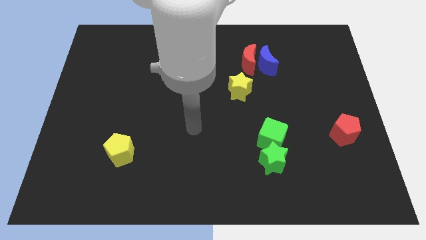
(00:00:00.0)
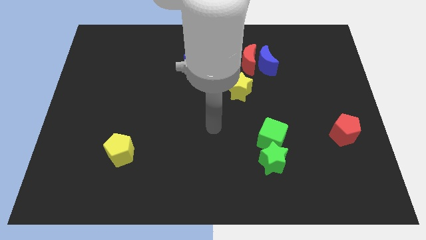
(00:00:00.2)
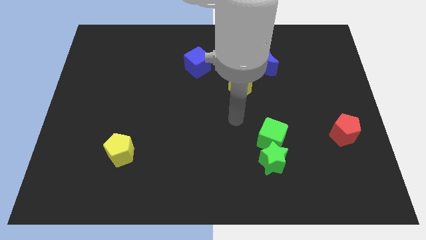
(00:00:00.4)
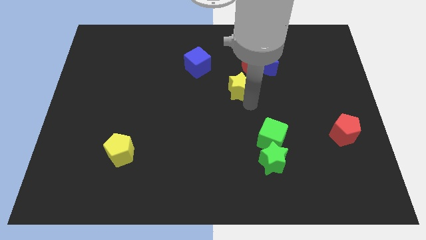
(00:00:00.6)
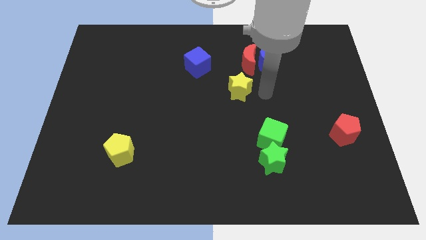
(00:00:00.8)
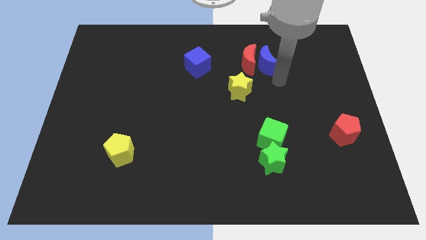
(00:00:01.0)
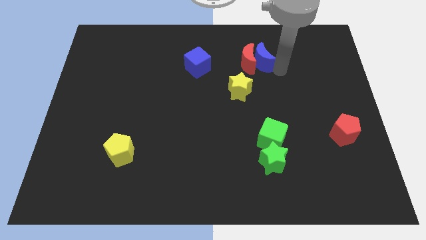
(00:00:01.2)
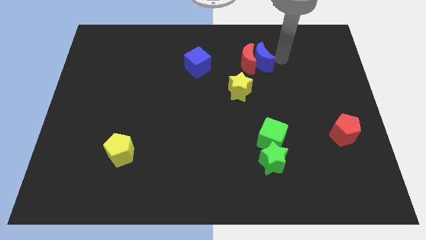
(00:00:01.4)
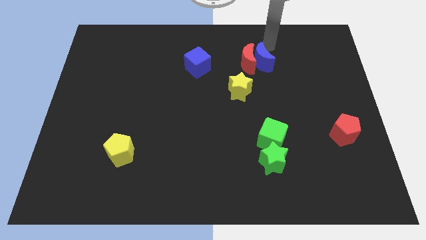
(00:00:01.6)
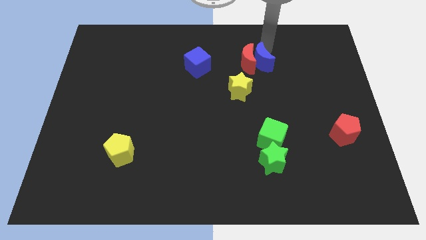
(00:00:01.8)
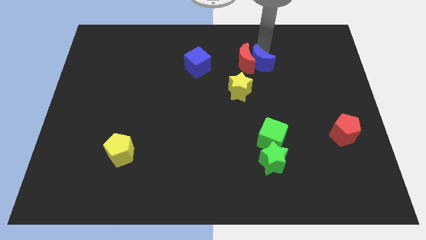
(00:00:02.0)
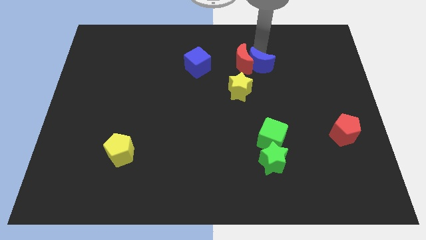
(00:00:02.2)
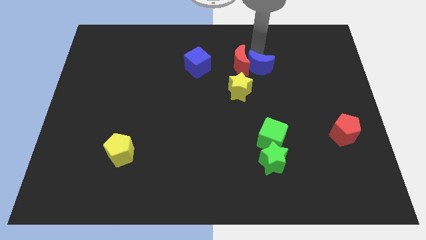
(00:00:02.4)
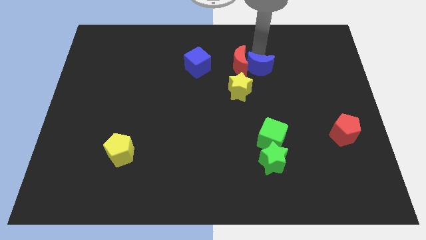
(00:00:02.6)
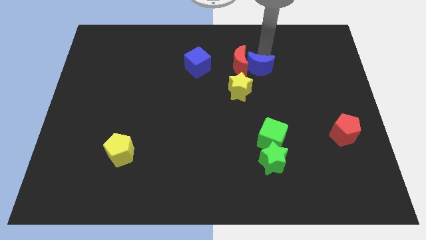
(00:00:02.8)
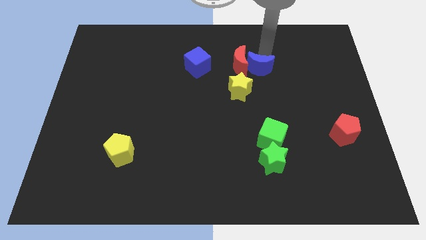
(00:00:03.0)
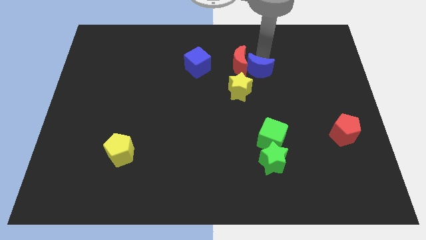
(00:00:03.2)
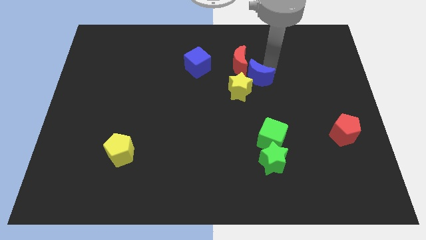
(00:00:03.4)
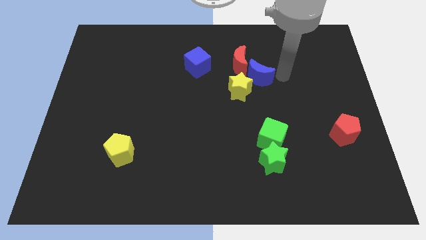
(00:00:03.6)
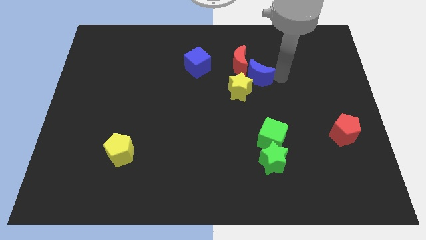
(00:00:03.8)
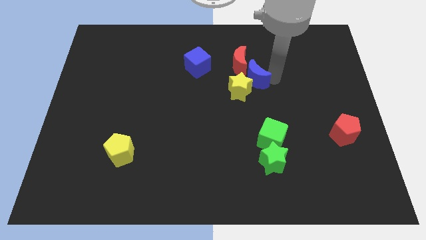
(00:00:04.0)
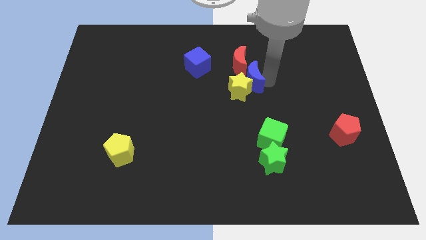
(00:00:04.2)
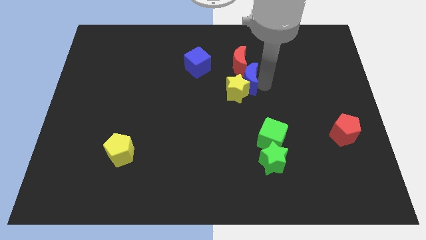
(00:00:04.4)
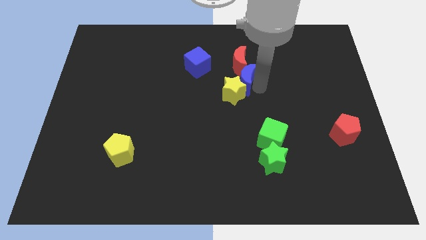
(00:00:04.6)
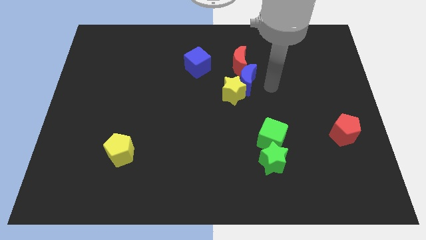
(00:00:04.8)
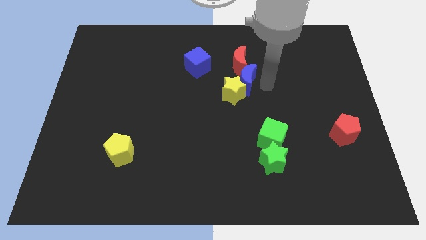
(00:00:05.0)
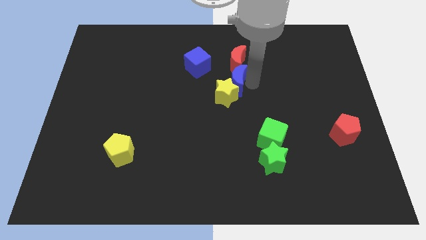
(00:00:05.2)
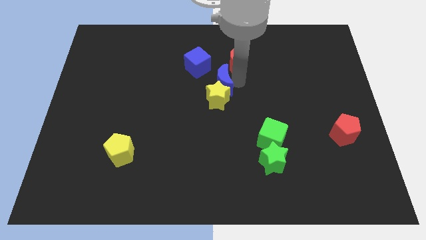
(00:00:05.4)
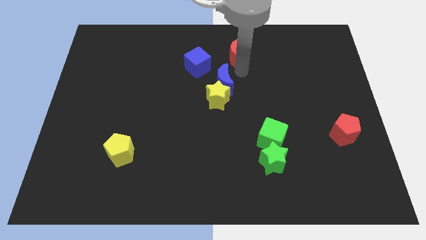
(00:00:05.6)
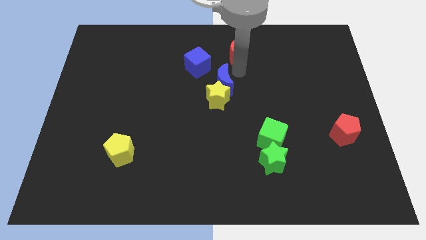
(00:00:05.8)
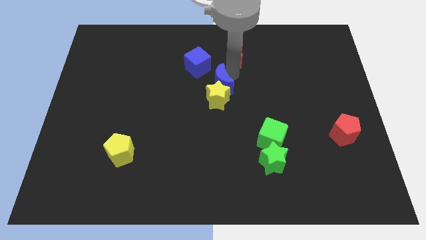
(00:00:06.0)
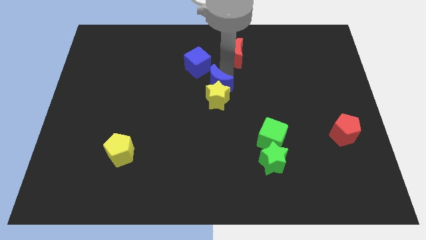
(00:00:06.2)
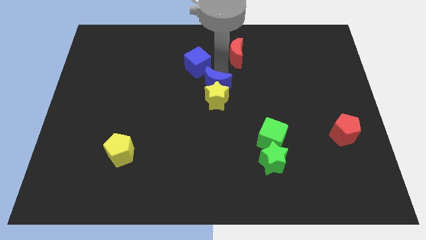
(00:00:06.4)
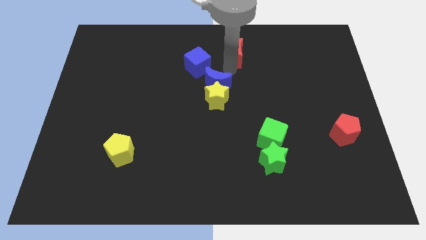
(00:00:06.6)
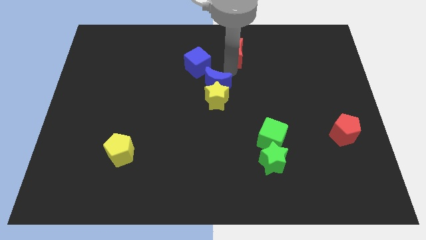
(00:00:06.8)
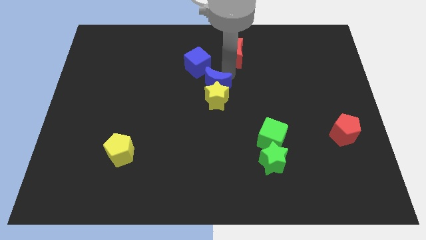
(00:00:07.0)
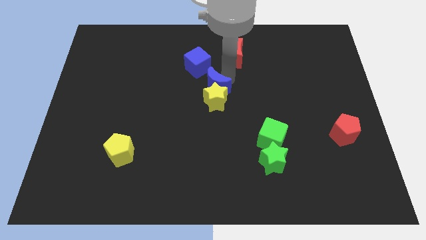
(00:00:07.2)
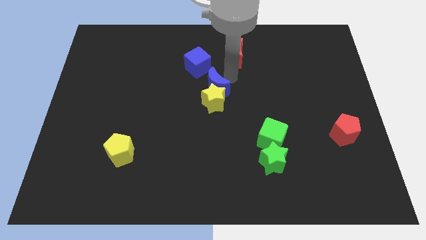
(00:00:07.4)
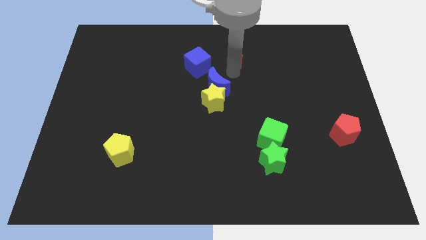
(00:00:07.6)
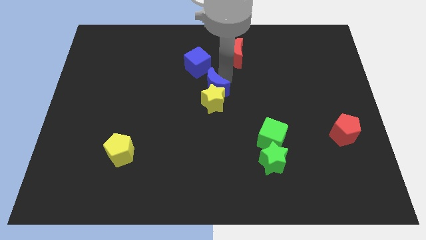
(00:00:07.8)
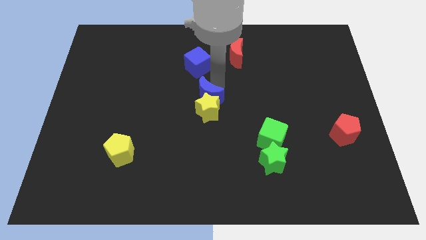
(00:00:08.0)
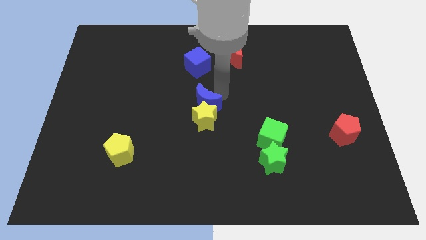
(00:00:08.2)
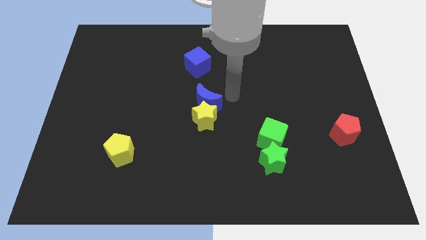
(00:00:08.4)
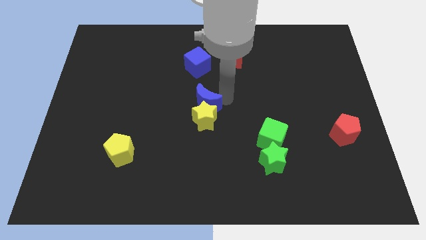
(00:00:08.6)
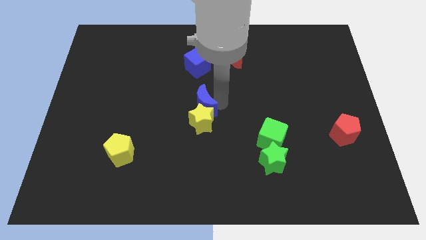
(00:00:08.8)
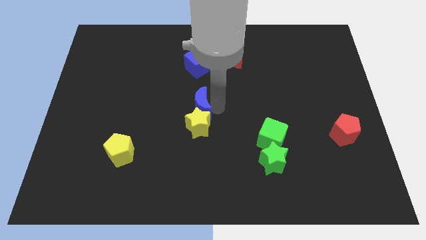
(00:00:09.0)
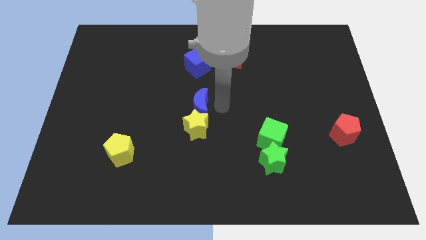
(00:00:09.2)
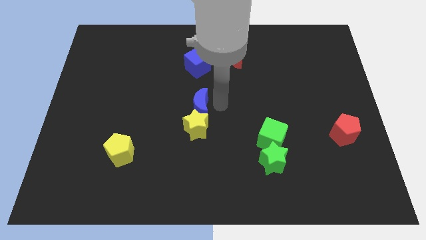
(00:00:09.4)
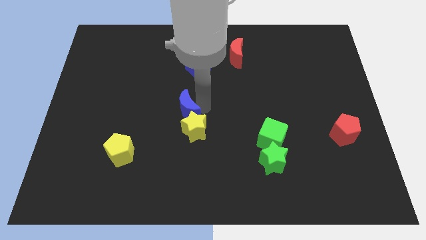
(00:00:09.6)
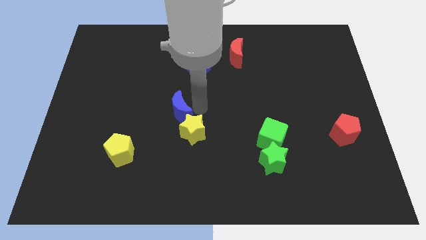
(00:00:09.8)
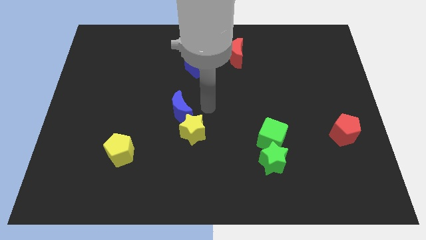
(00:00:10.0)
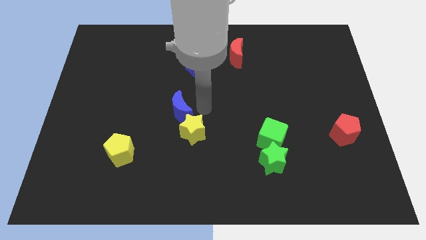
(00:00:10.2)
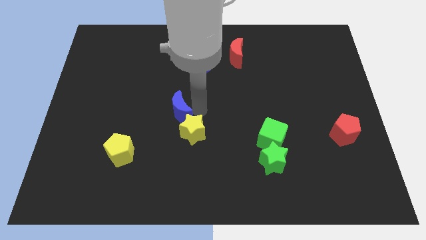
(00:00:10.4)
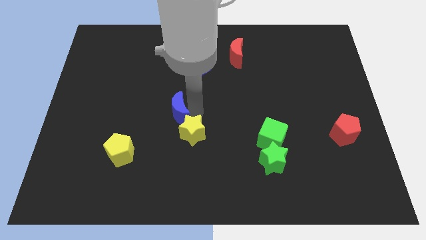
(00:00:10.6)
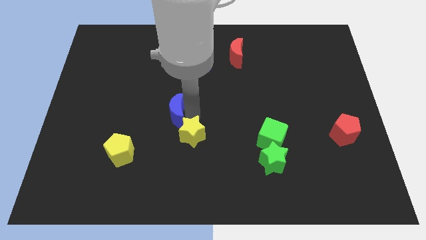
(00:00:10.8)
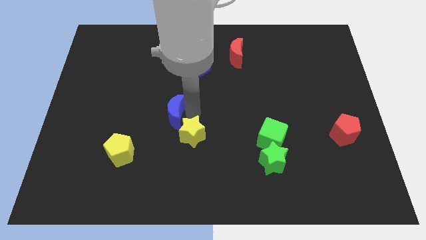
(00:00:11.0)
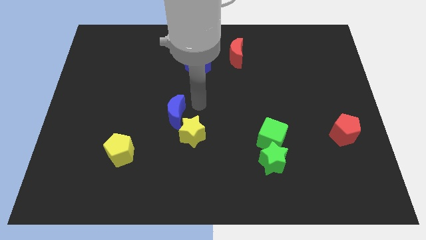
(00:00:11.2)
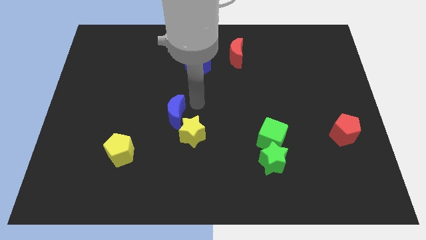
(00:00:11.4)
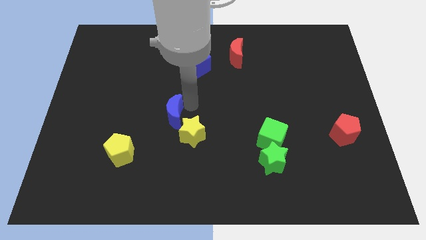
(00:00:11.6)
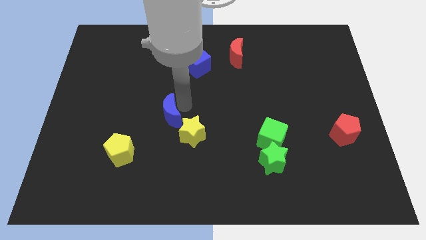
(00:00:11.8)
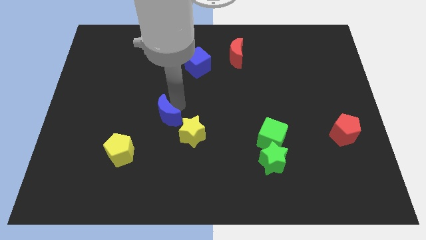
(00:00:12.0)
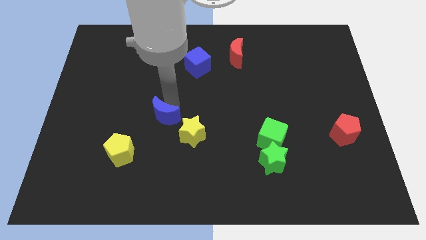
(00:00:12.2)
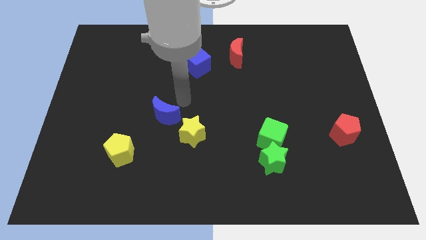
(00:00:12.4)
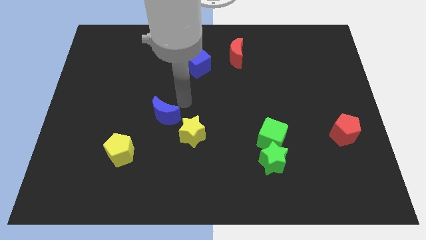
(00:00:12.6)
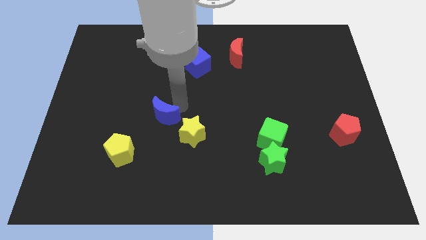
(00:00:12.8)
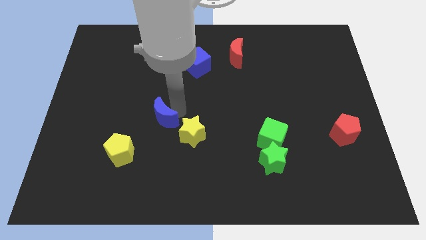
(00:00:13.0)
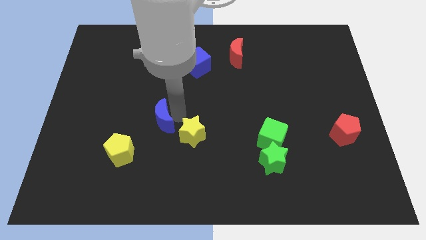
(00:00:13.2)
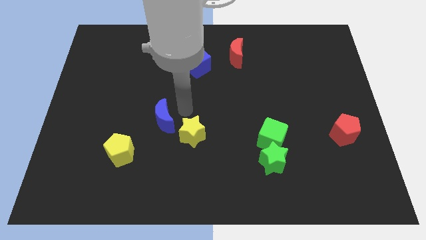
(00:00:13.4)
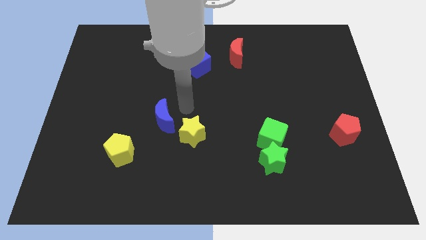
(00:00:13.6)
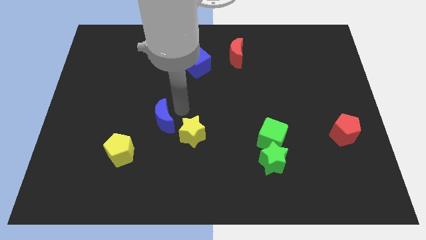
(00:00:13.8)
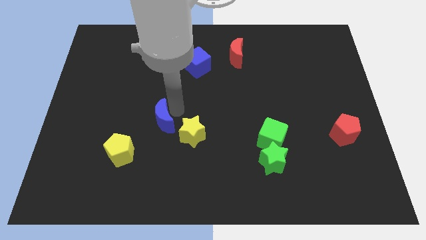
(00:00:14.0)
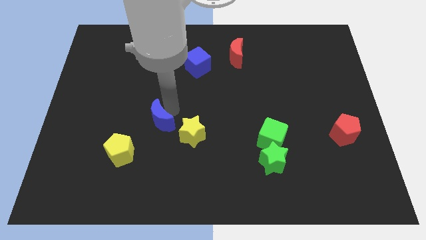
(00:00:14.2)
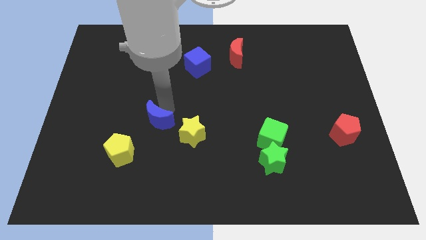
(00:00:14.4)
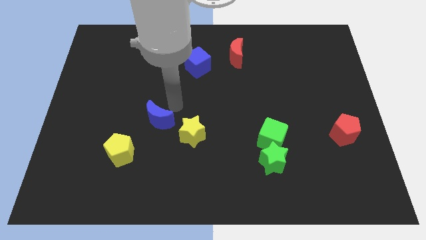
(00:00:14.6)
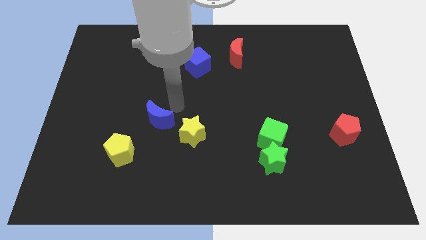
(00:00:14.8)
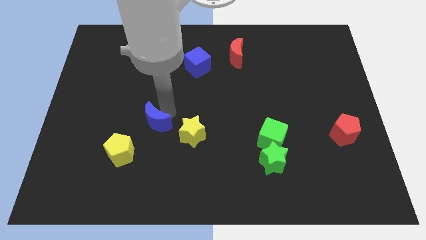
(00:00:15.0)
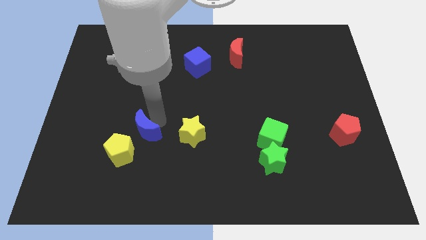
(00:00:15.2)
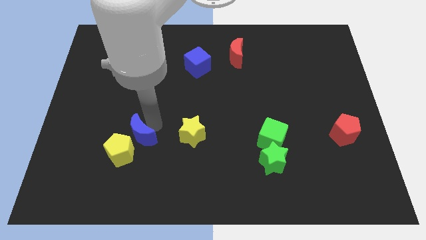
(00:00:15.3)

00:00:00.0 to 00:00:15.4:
move the blue moon close to the yellow pentagon

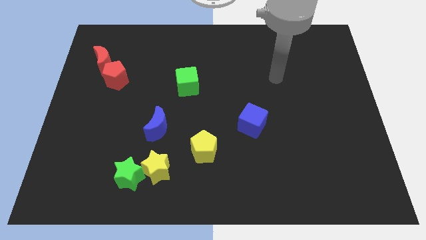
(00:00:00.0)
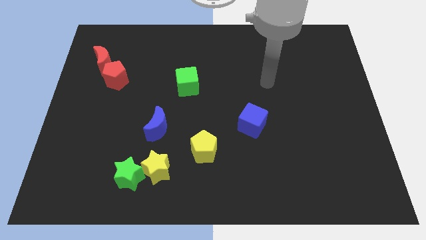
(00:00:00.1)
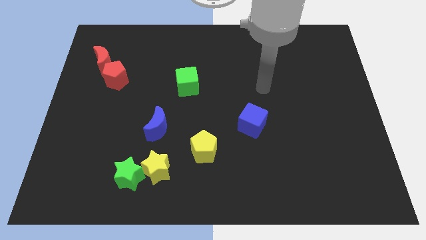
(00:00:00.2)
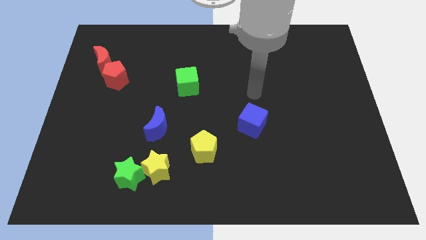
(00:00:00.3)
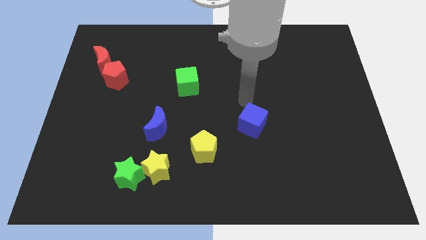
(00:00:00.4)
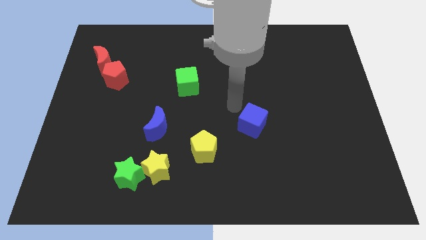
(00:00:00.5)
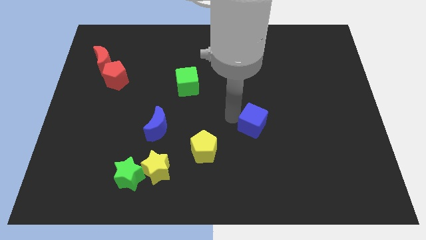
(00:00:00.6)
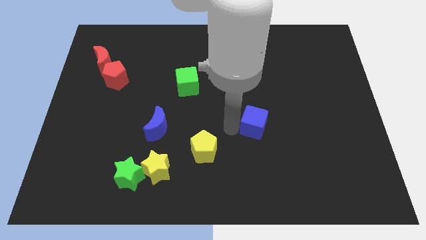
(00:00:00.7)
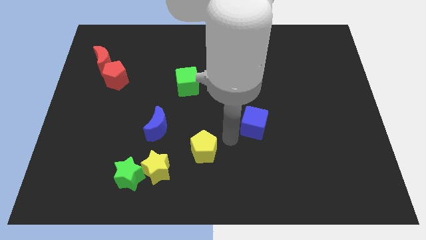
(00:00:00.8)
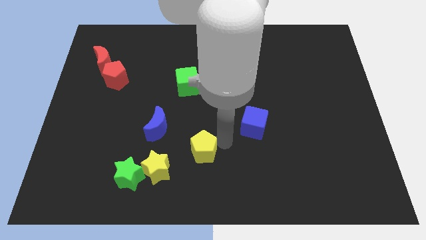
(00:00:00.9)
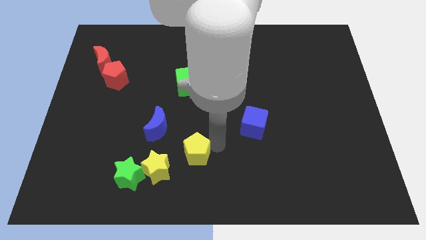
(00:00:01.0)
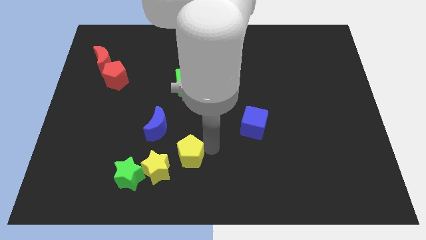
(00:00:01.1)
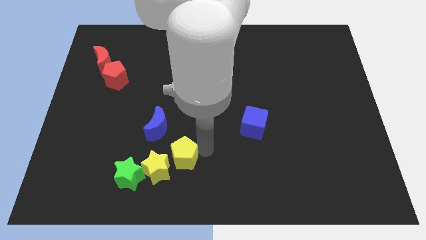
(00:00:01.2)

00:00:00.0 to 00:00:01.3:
move the yellow pentagon next to the yellow star
